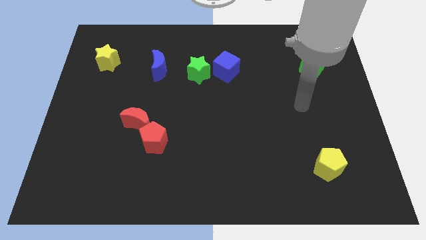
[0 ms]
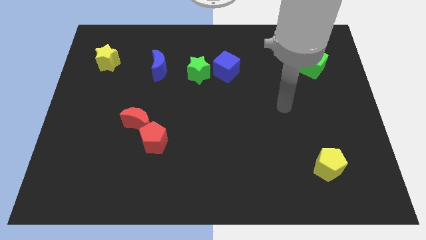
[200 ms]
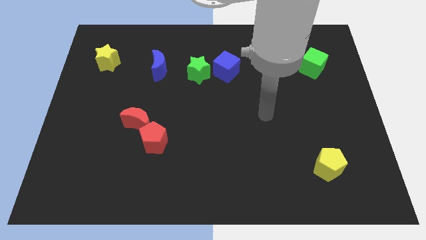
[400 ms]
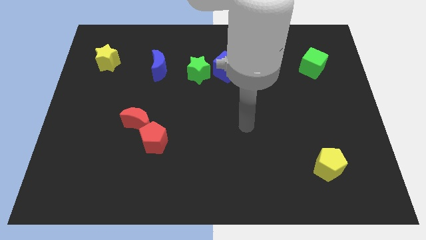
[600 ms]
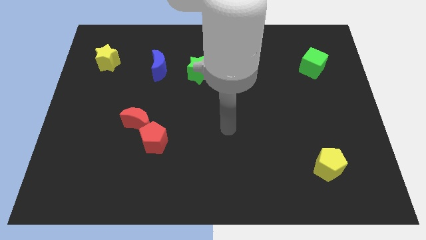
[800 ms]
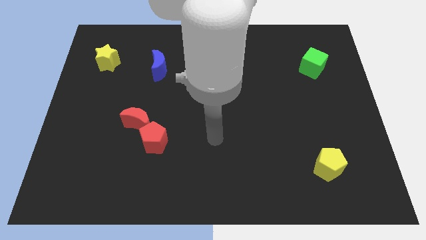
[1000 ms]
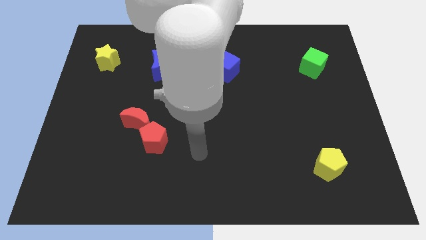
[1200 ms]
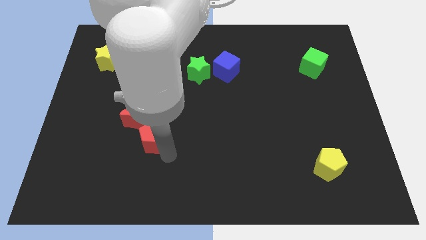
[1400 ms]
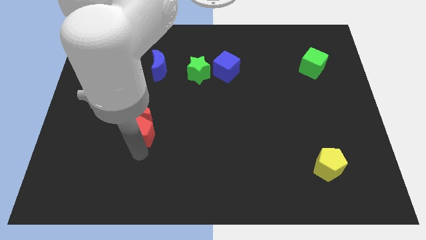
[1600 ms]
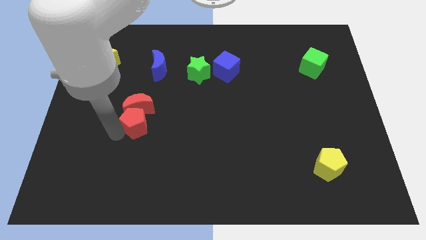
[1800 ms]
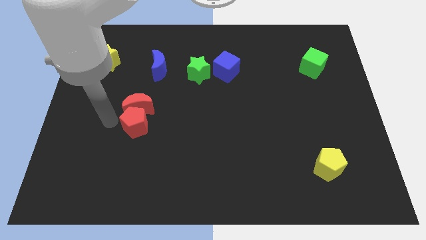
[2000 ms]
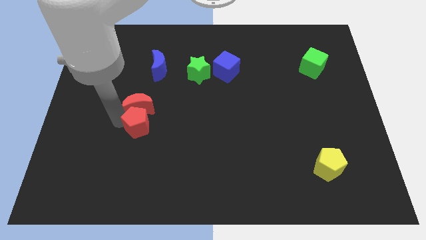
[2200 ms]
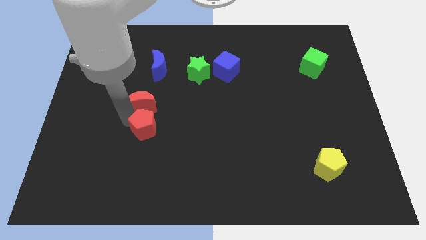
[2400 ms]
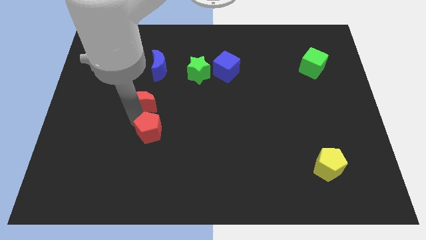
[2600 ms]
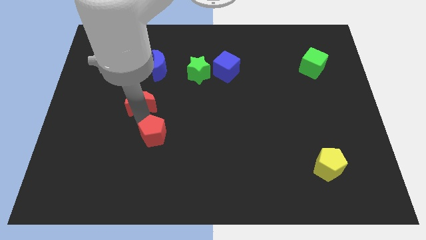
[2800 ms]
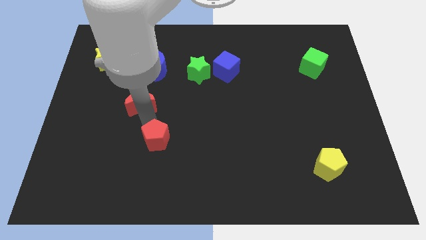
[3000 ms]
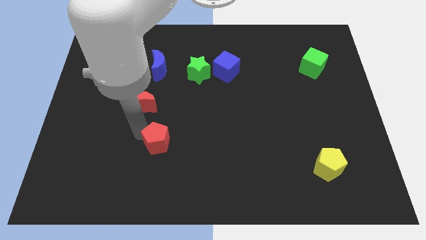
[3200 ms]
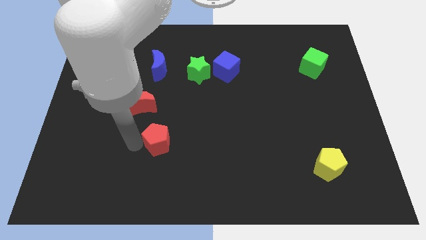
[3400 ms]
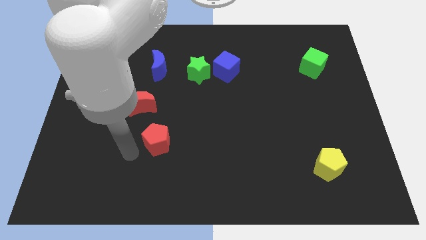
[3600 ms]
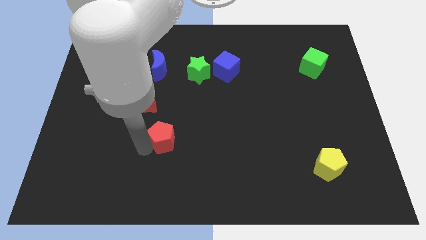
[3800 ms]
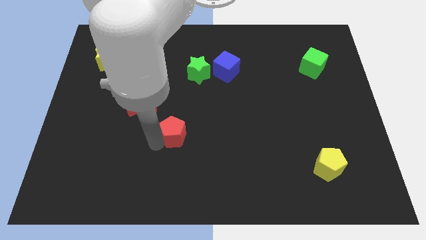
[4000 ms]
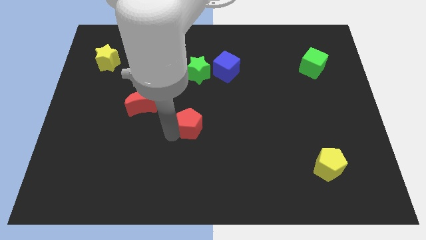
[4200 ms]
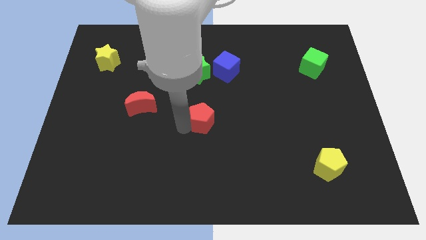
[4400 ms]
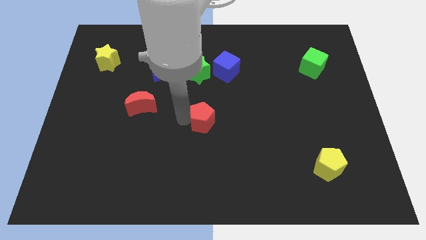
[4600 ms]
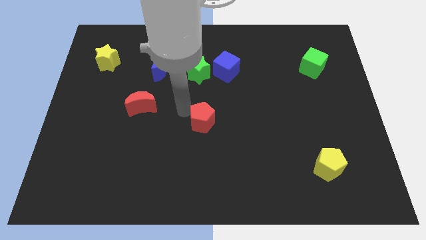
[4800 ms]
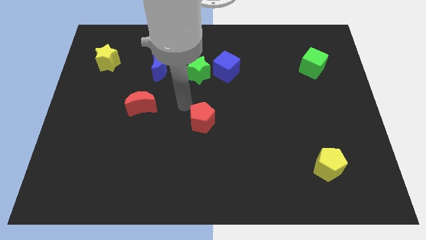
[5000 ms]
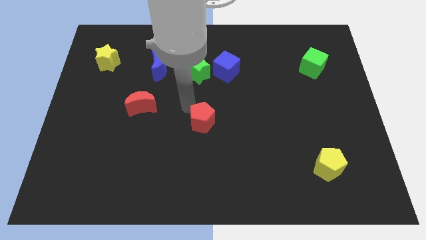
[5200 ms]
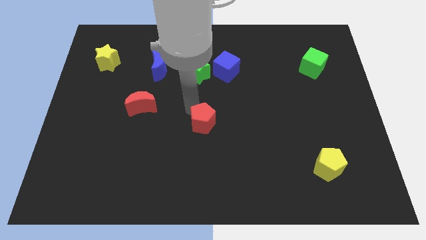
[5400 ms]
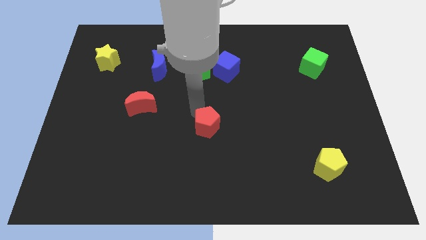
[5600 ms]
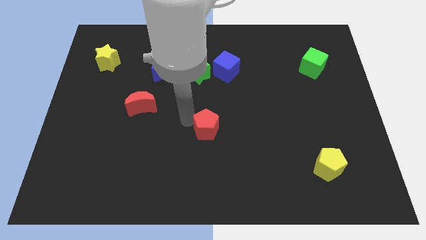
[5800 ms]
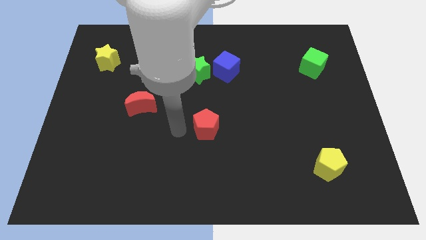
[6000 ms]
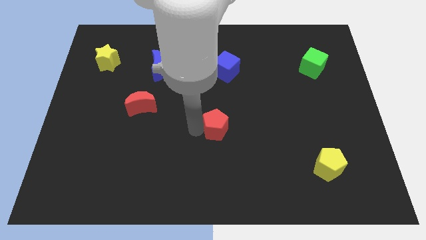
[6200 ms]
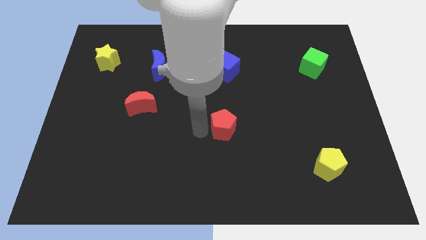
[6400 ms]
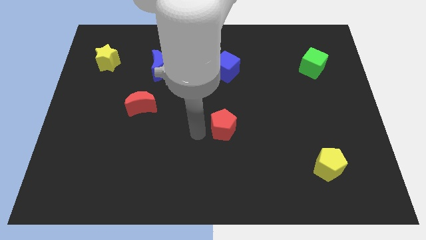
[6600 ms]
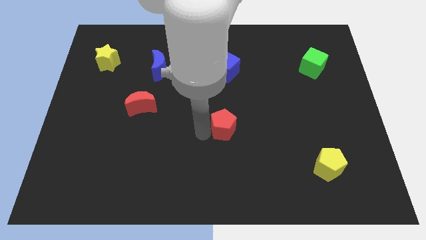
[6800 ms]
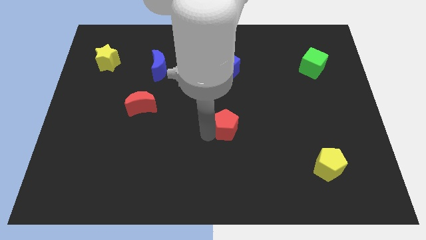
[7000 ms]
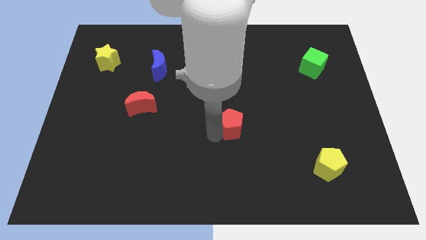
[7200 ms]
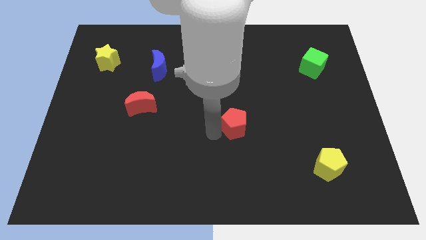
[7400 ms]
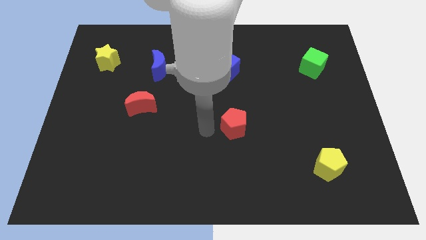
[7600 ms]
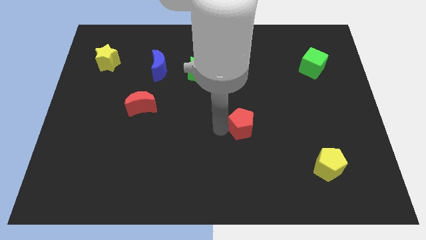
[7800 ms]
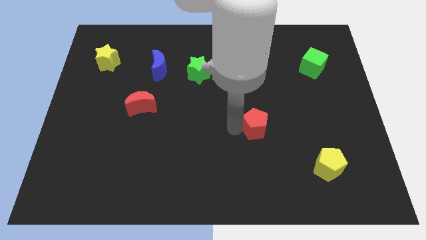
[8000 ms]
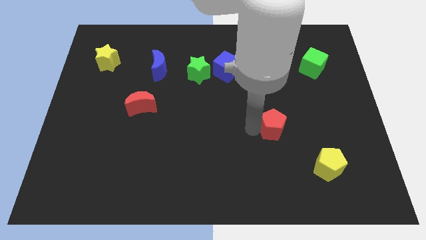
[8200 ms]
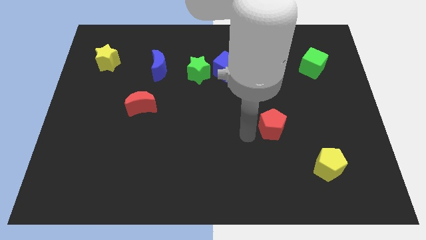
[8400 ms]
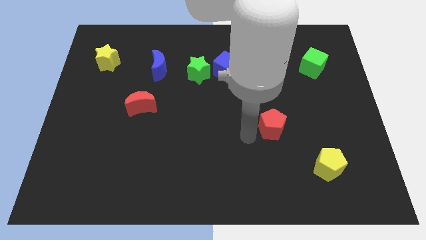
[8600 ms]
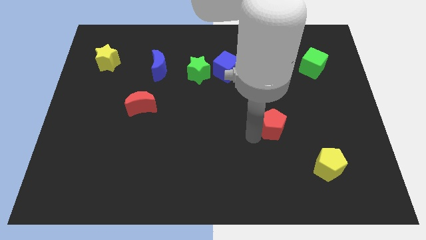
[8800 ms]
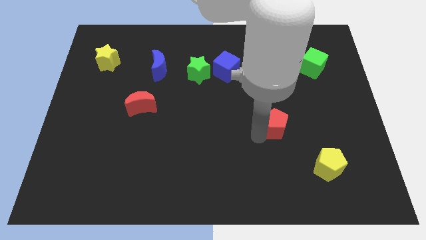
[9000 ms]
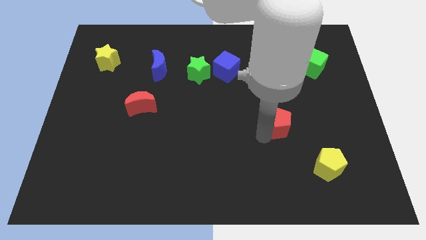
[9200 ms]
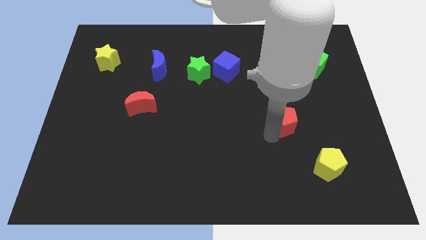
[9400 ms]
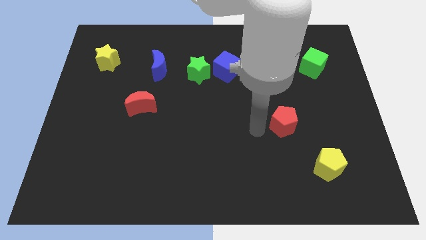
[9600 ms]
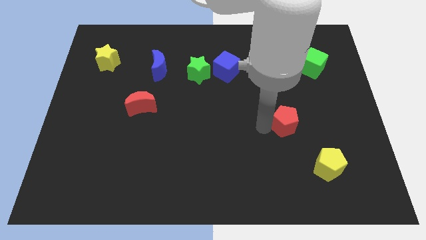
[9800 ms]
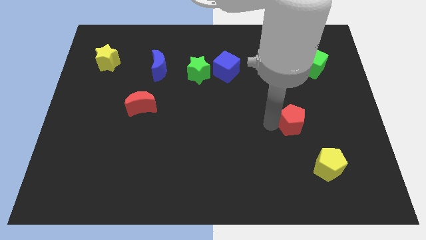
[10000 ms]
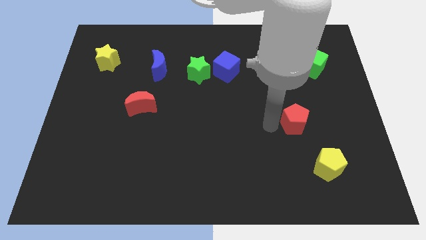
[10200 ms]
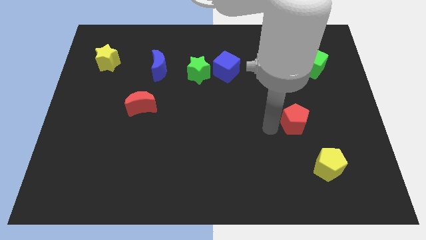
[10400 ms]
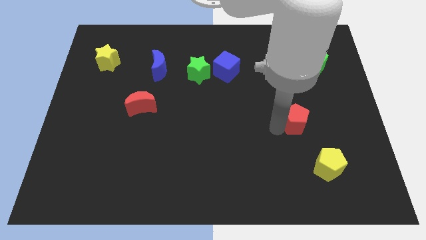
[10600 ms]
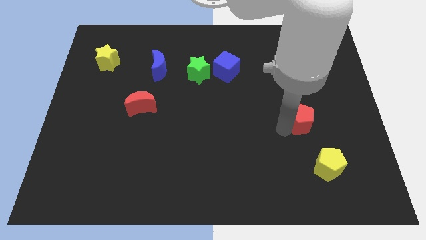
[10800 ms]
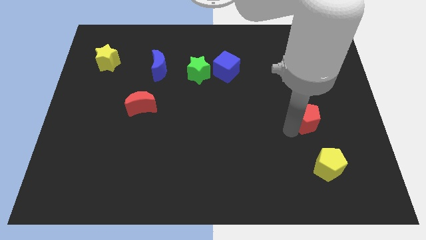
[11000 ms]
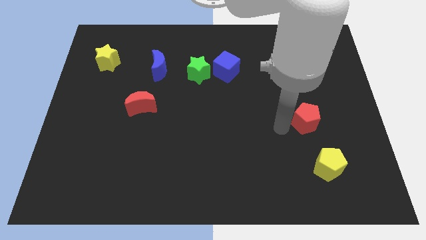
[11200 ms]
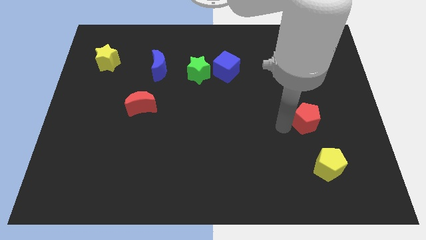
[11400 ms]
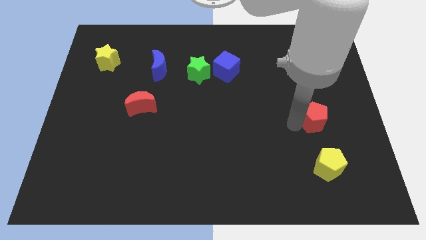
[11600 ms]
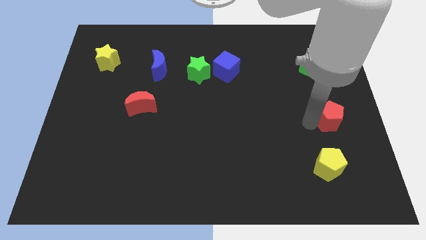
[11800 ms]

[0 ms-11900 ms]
push the red pentagon to the center right
